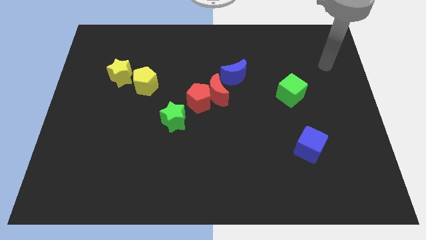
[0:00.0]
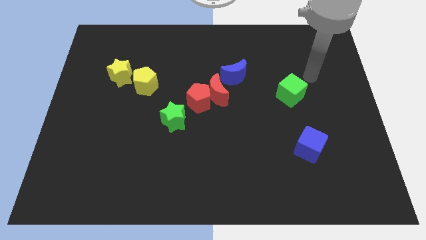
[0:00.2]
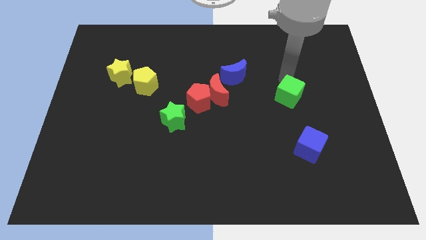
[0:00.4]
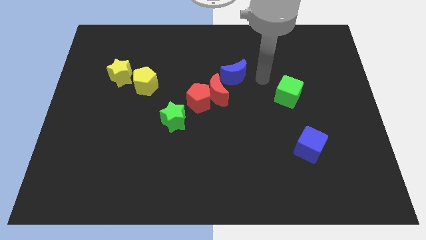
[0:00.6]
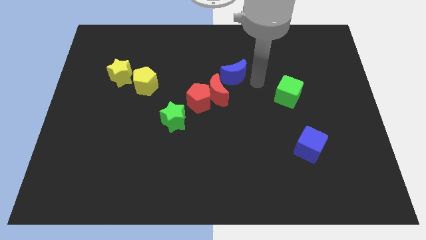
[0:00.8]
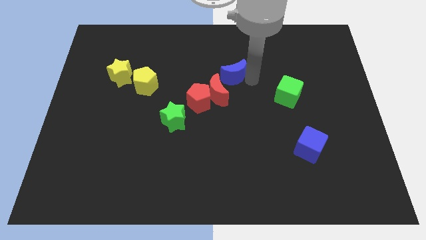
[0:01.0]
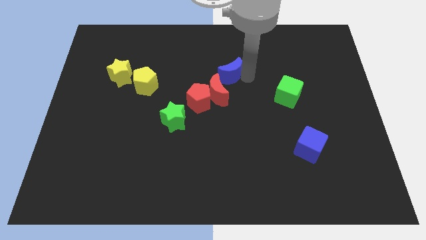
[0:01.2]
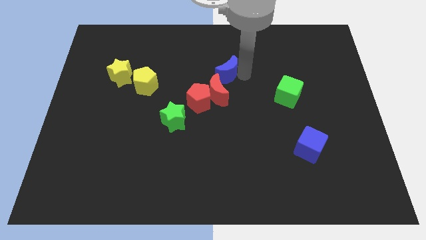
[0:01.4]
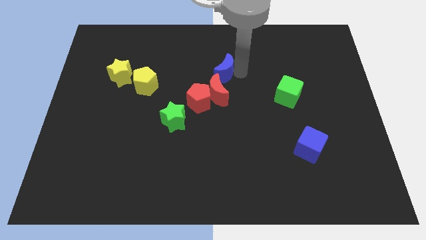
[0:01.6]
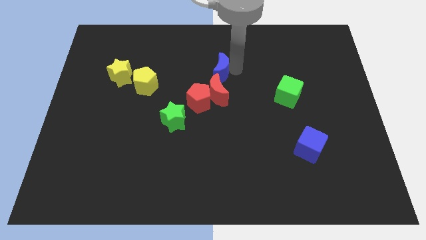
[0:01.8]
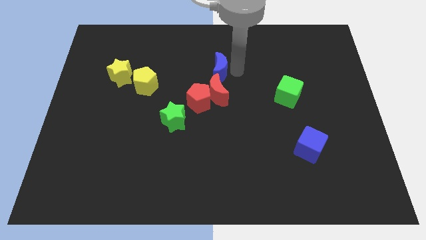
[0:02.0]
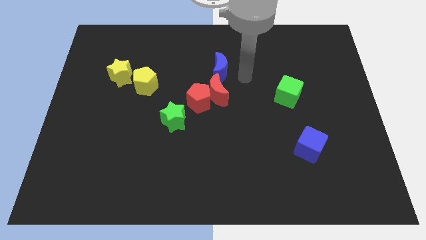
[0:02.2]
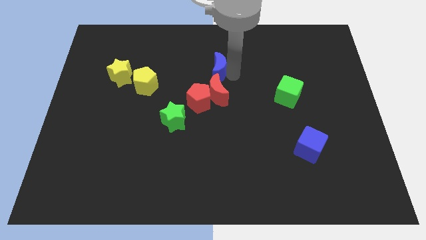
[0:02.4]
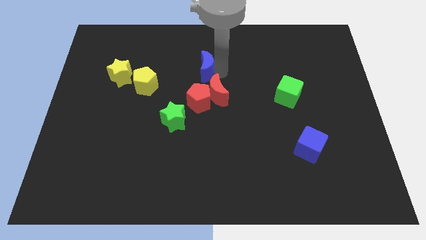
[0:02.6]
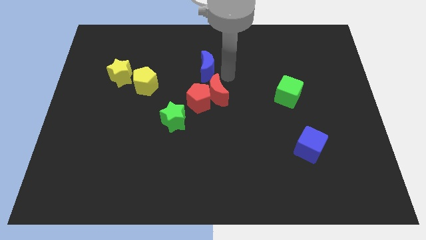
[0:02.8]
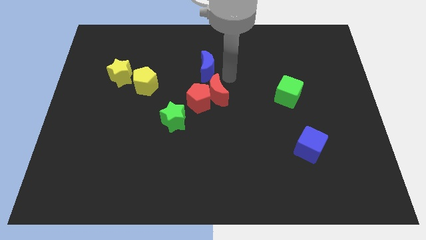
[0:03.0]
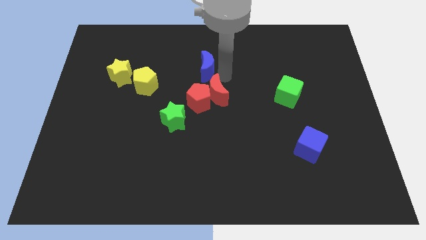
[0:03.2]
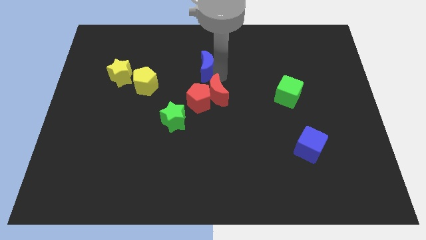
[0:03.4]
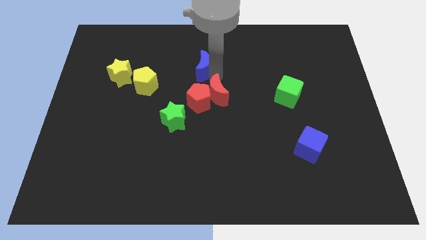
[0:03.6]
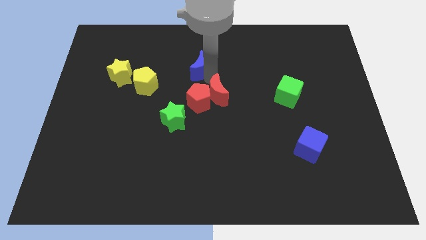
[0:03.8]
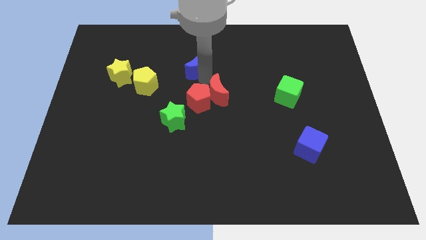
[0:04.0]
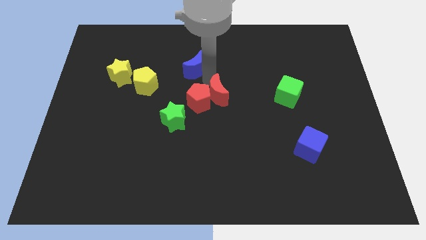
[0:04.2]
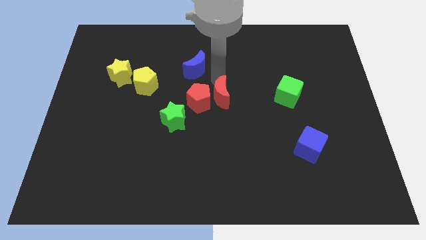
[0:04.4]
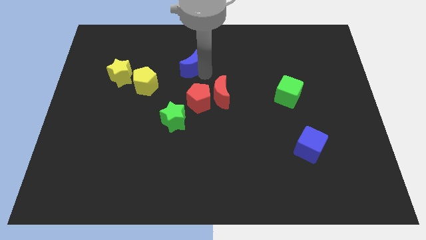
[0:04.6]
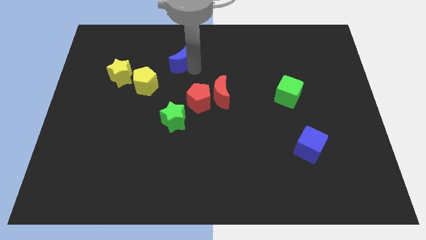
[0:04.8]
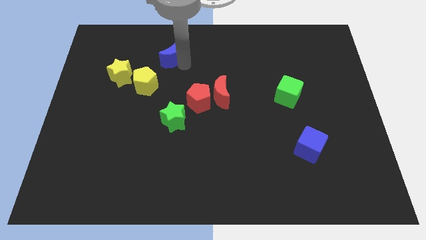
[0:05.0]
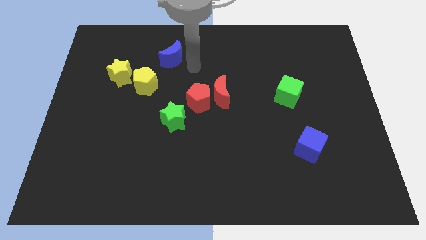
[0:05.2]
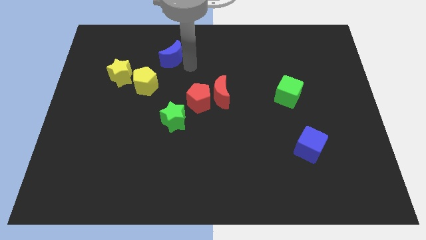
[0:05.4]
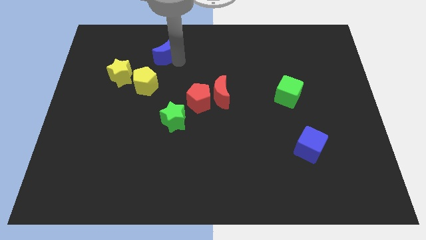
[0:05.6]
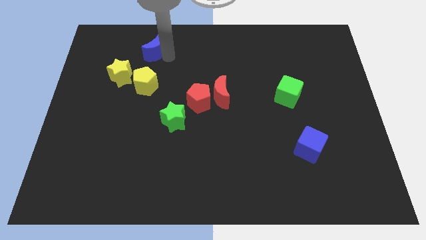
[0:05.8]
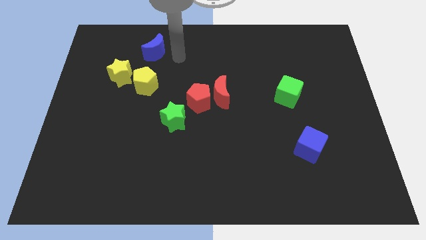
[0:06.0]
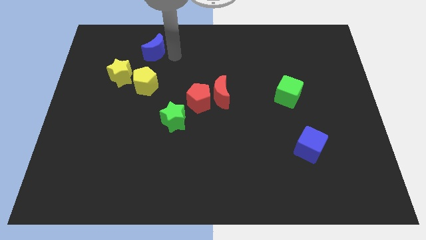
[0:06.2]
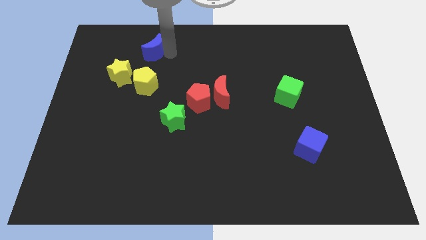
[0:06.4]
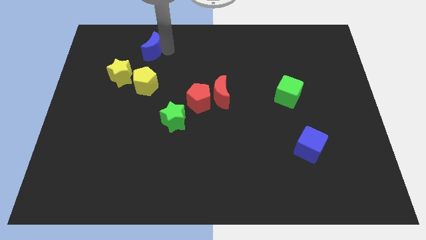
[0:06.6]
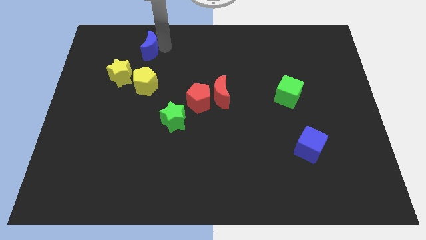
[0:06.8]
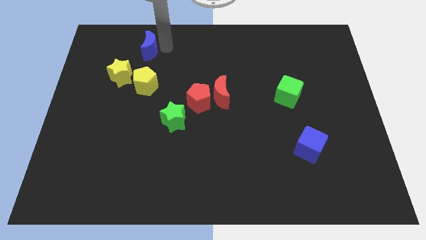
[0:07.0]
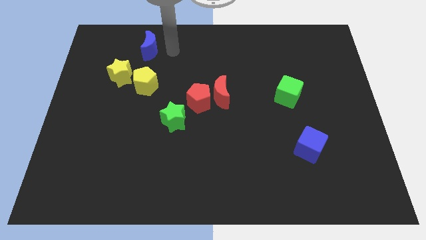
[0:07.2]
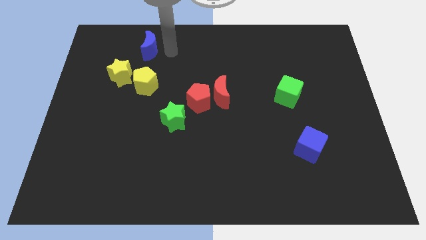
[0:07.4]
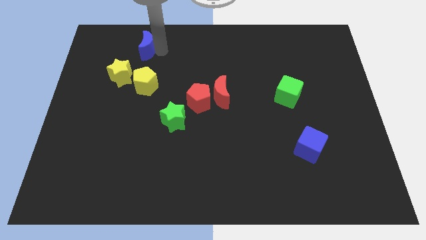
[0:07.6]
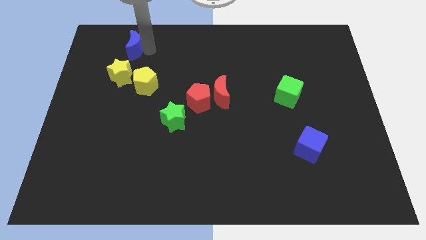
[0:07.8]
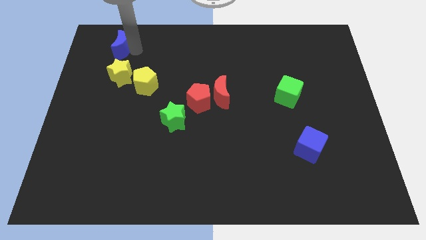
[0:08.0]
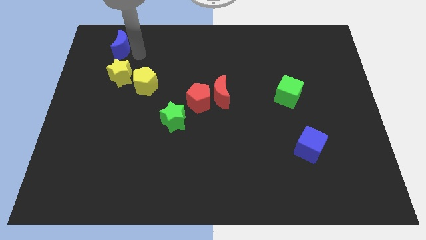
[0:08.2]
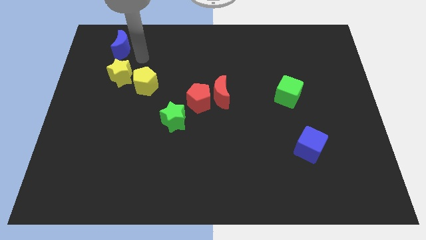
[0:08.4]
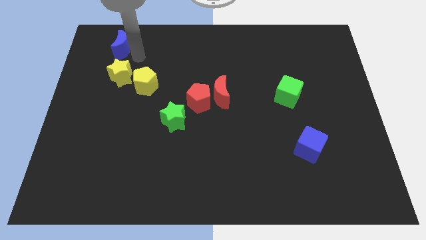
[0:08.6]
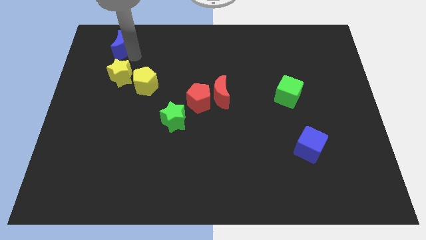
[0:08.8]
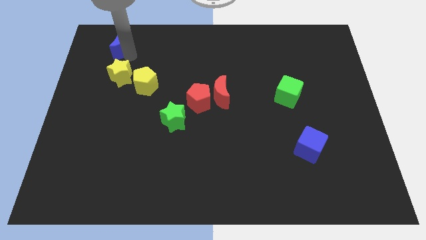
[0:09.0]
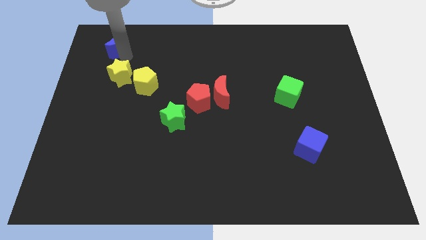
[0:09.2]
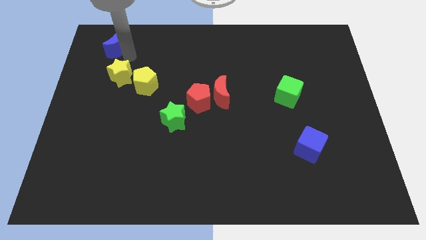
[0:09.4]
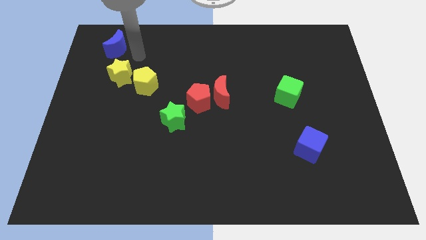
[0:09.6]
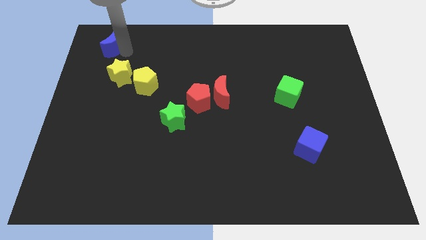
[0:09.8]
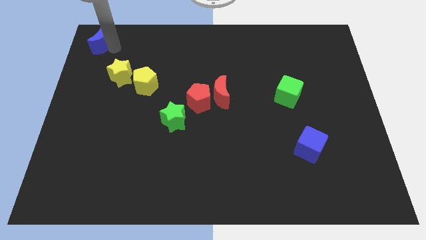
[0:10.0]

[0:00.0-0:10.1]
put the blue moon to the top left corner

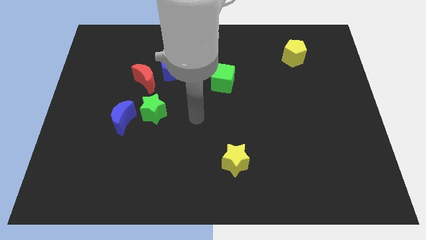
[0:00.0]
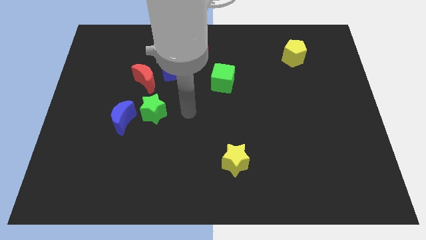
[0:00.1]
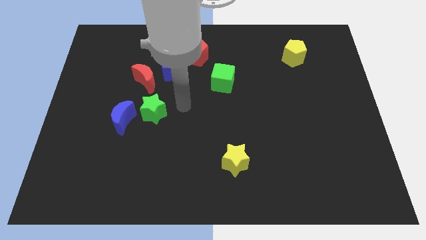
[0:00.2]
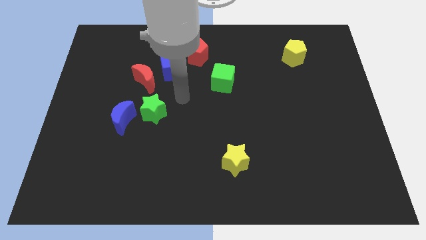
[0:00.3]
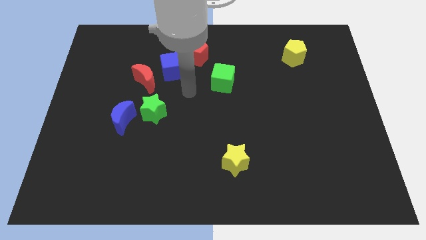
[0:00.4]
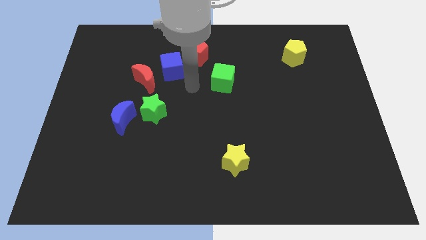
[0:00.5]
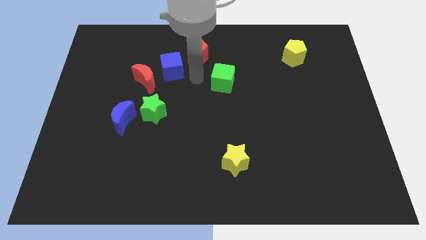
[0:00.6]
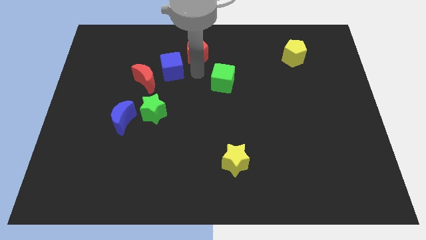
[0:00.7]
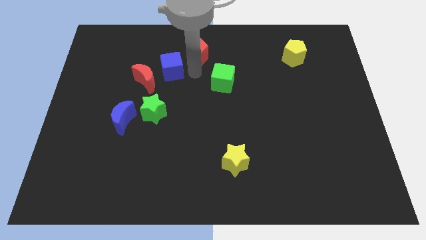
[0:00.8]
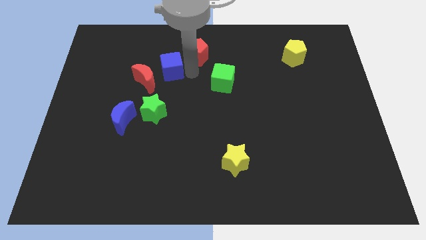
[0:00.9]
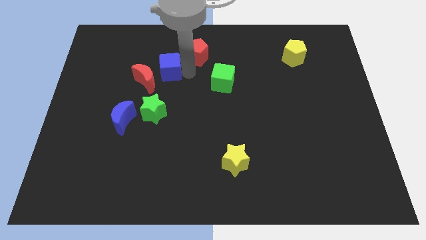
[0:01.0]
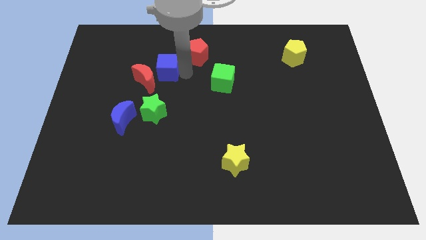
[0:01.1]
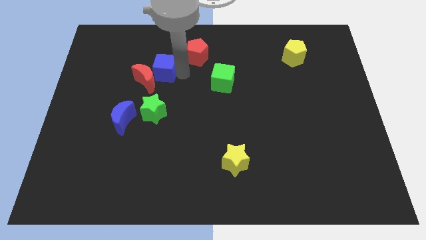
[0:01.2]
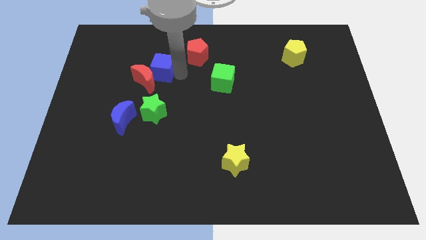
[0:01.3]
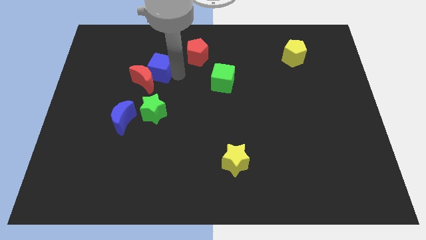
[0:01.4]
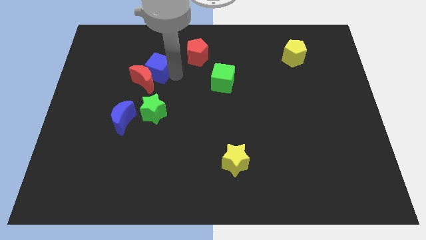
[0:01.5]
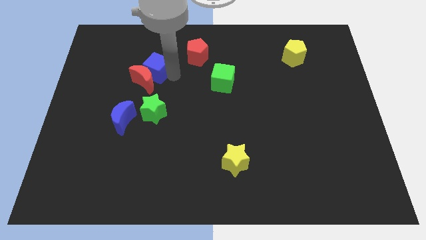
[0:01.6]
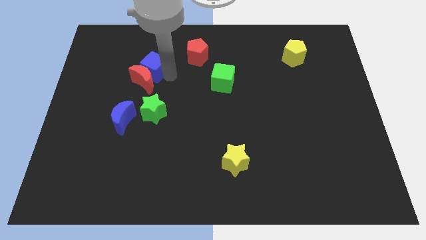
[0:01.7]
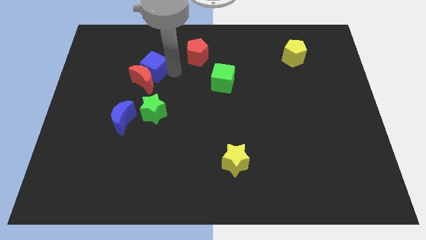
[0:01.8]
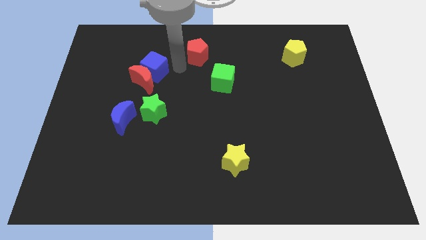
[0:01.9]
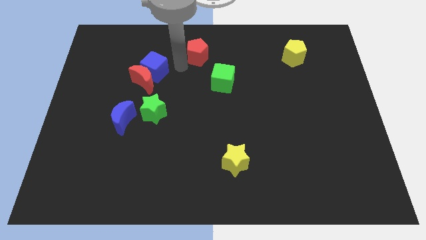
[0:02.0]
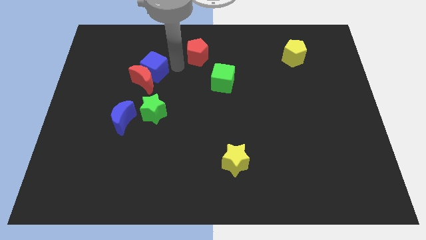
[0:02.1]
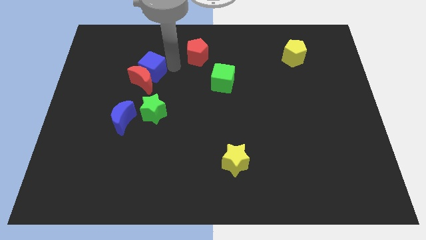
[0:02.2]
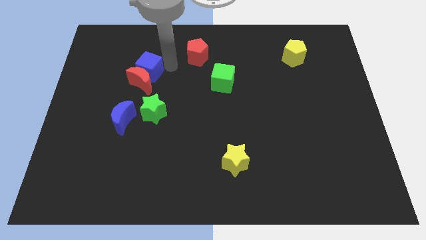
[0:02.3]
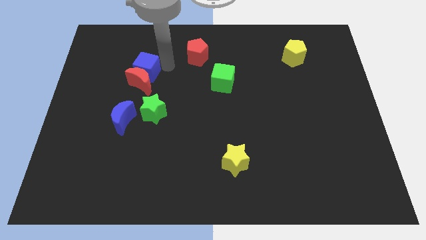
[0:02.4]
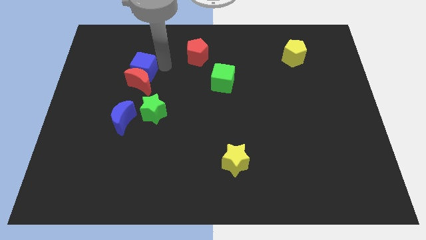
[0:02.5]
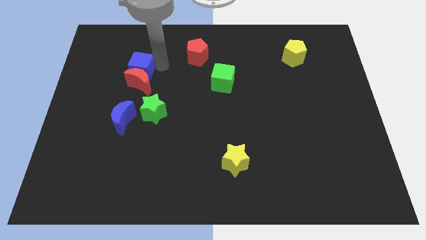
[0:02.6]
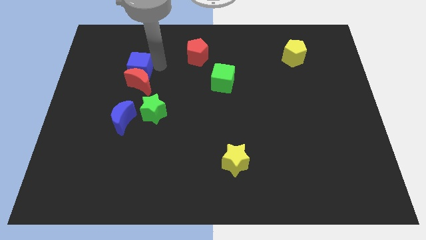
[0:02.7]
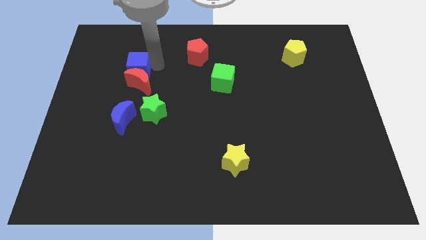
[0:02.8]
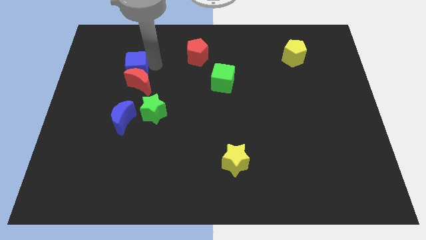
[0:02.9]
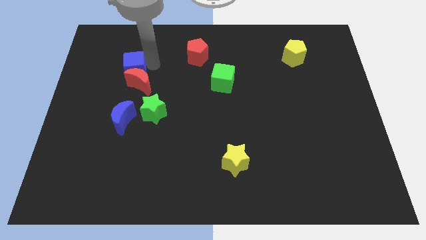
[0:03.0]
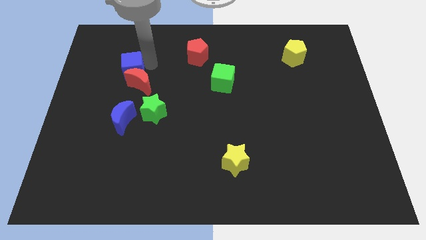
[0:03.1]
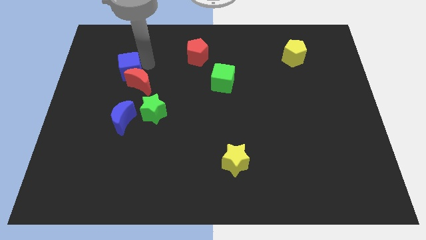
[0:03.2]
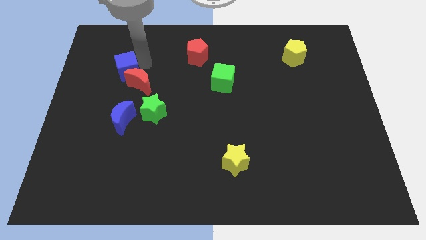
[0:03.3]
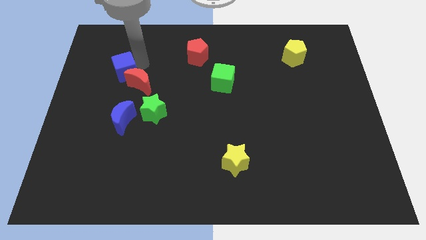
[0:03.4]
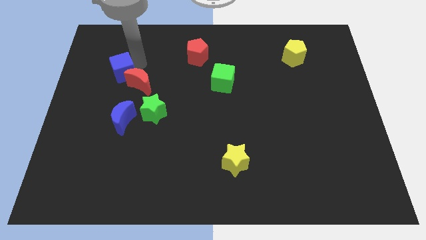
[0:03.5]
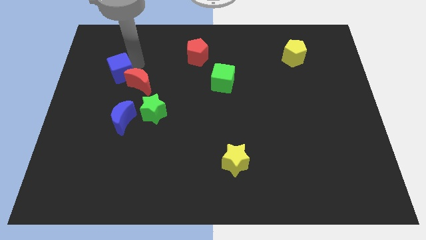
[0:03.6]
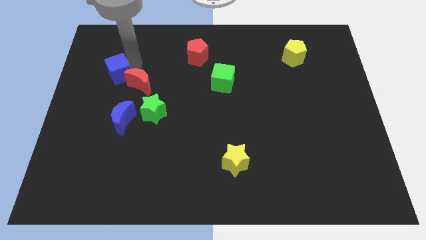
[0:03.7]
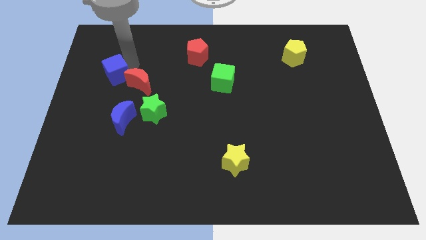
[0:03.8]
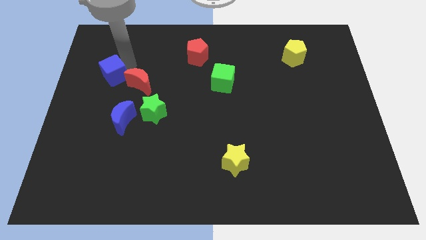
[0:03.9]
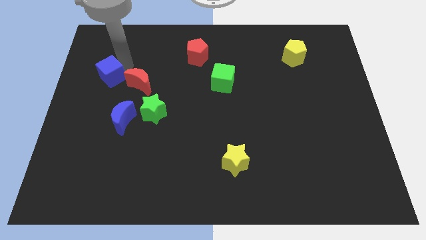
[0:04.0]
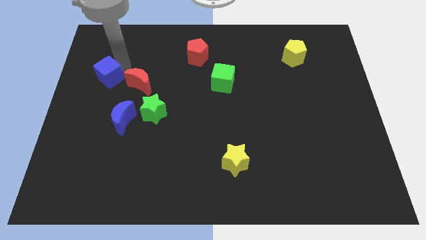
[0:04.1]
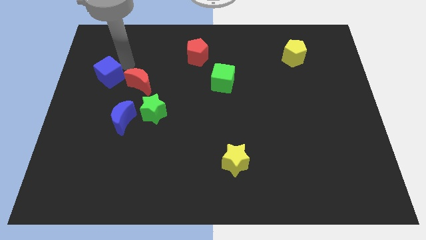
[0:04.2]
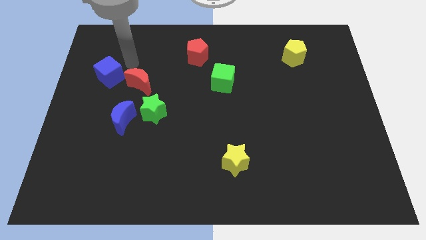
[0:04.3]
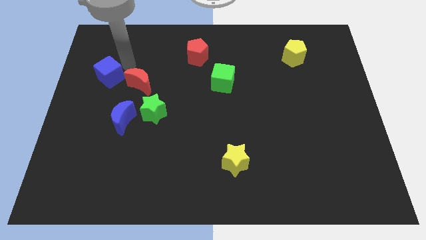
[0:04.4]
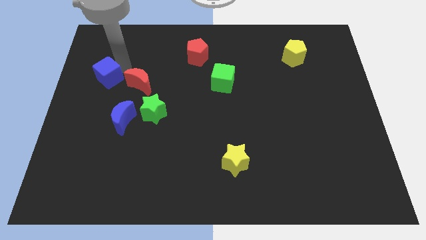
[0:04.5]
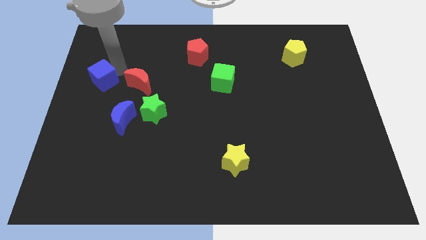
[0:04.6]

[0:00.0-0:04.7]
push the blue cube to the left side
